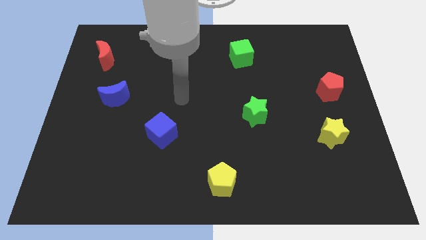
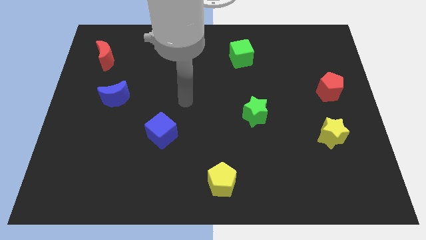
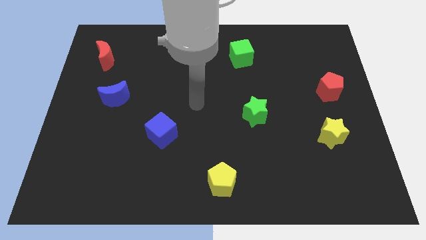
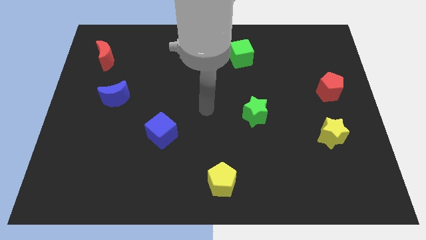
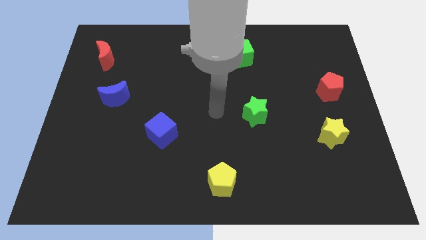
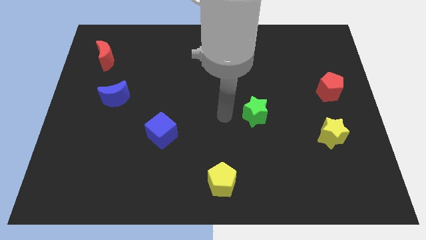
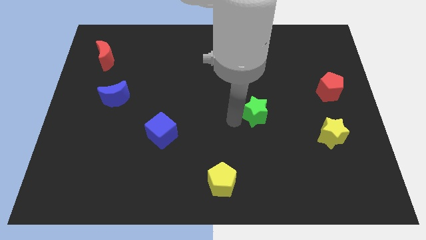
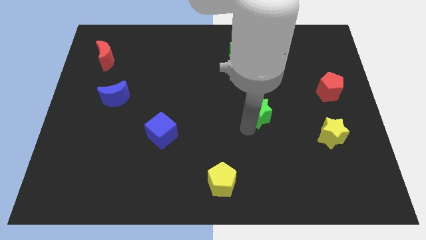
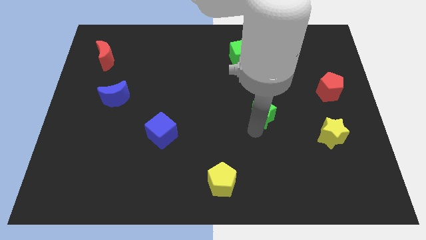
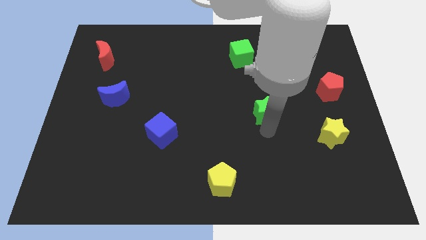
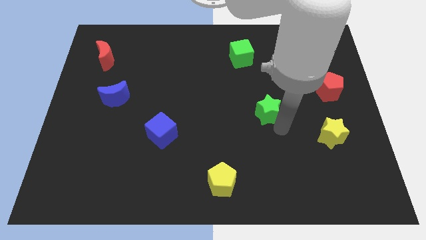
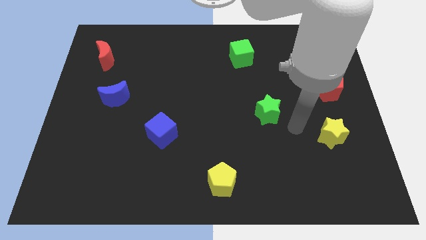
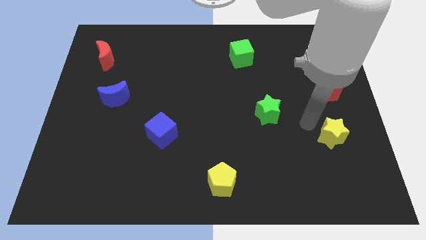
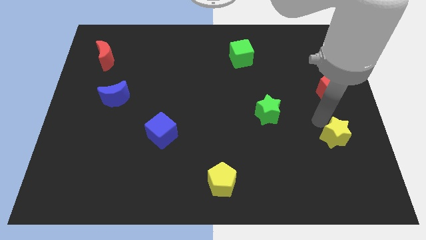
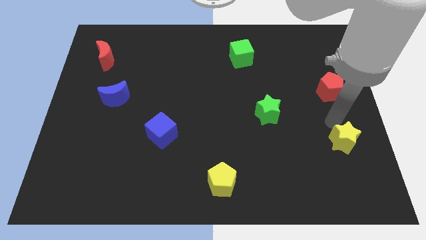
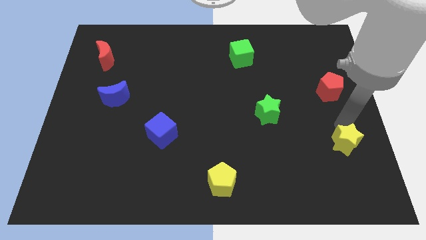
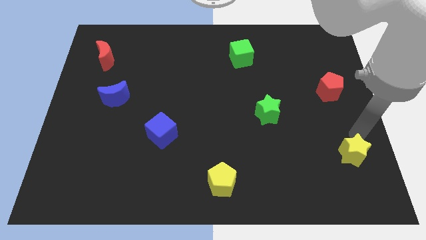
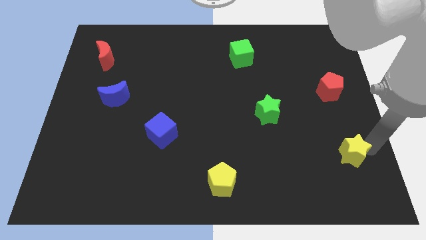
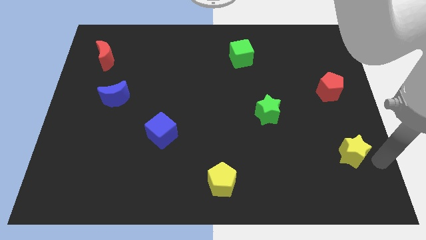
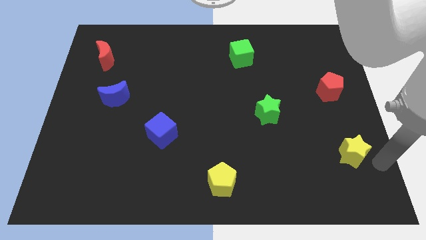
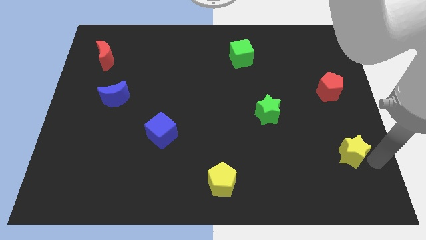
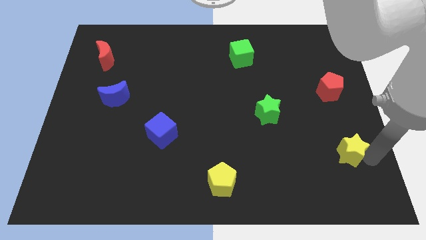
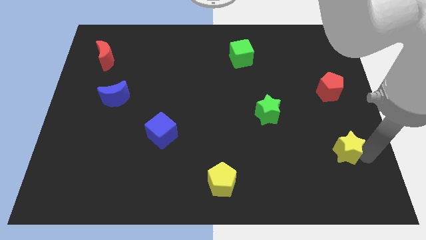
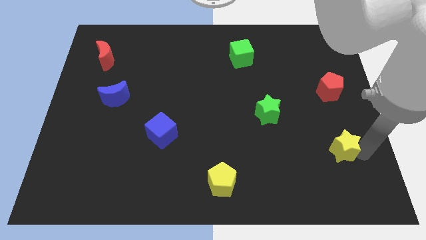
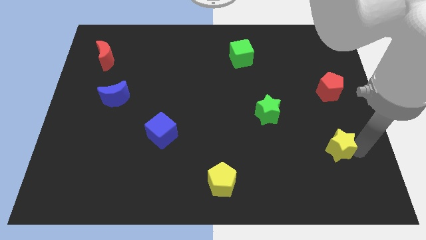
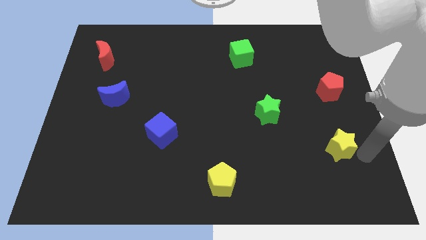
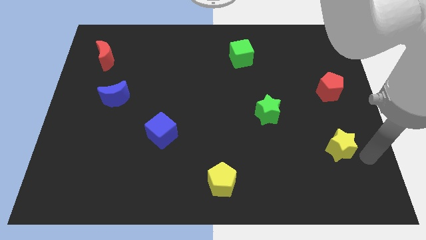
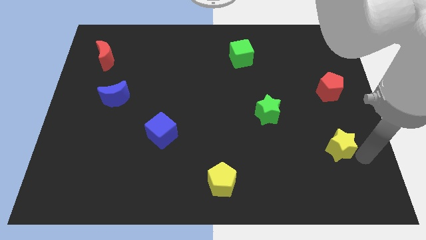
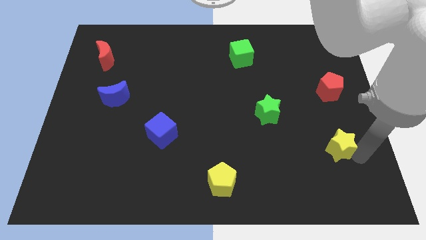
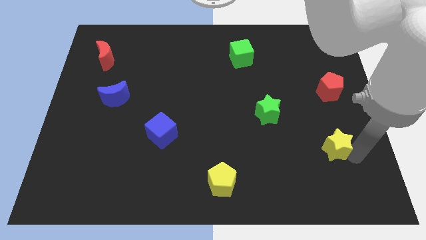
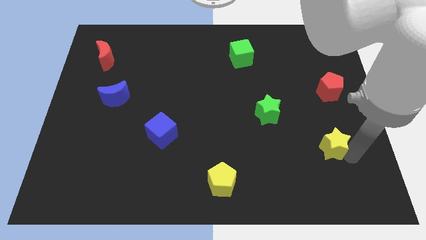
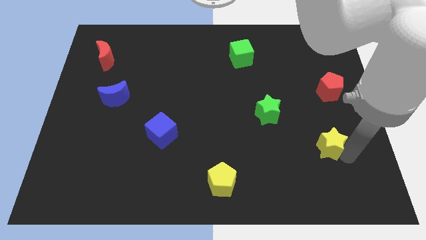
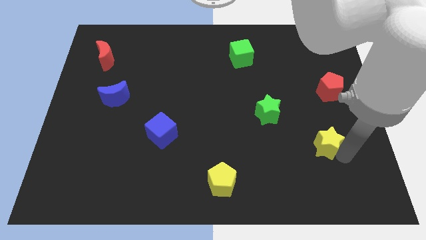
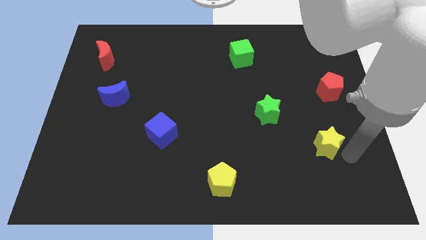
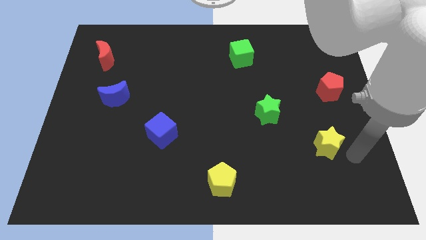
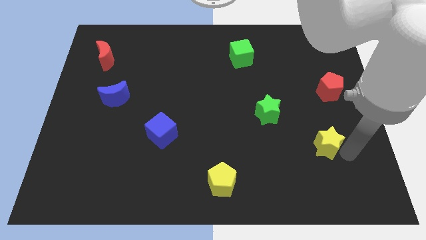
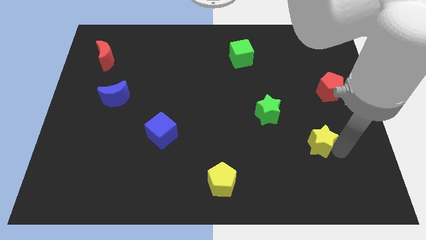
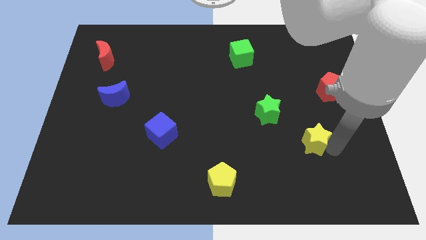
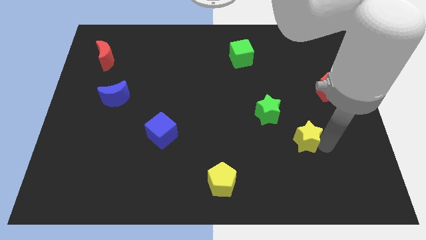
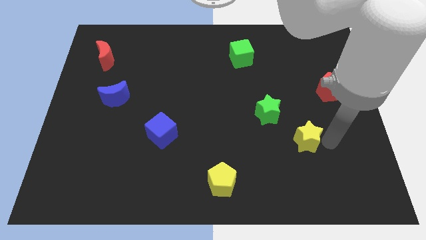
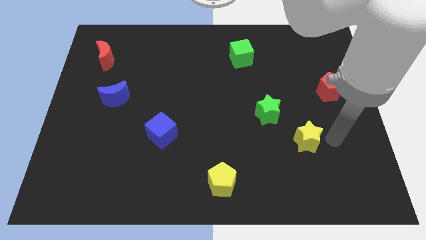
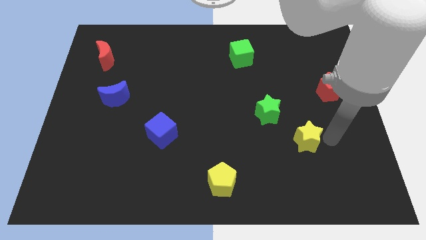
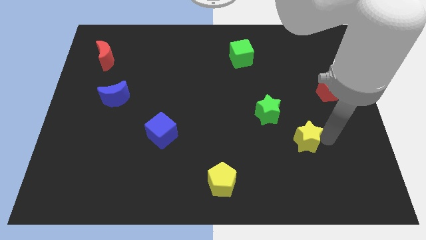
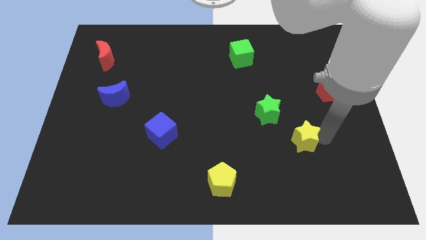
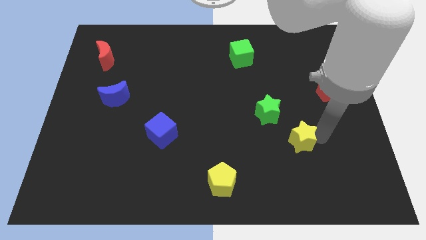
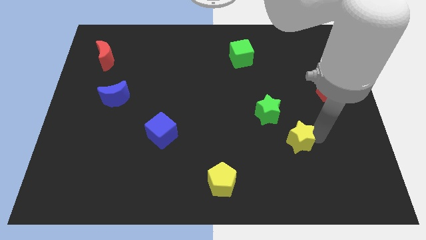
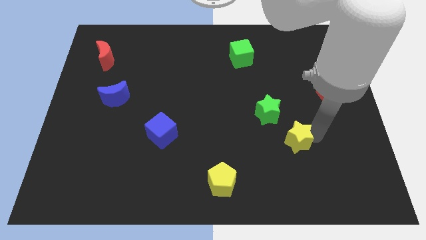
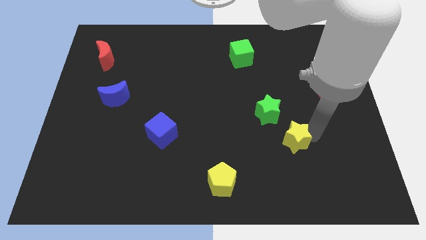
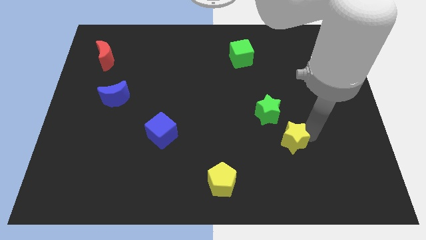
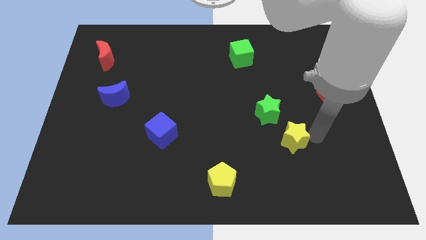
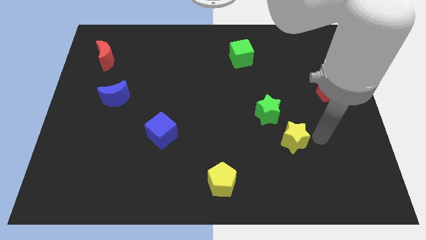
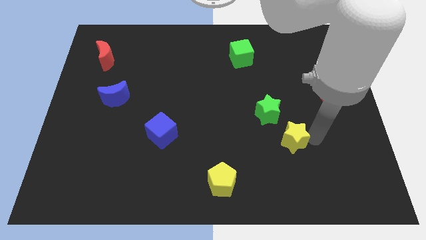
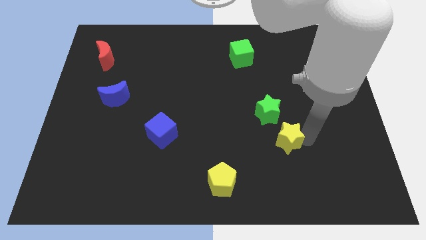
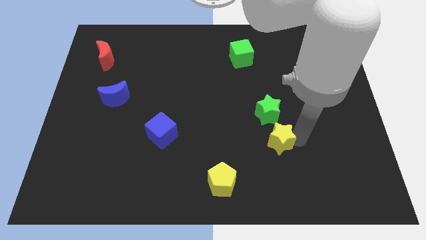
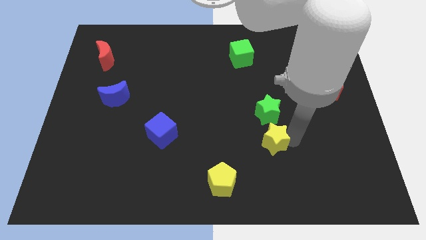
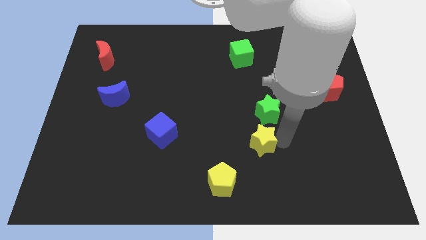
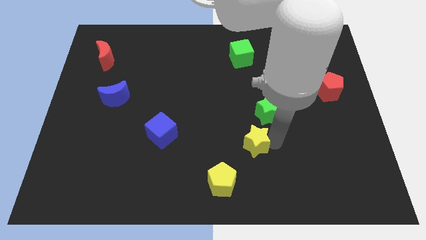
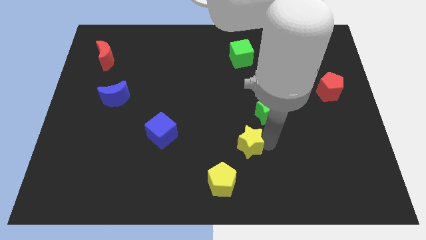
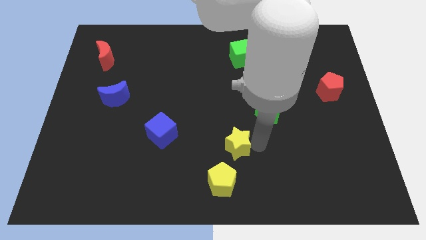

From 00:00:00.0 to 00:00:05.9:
move the yellow star to the left

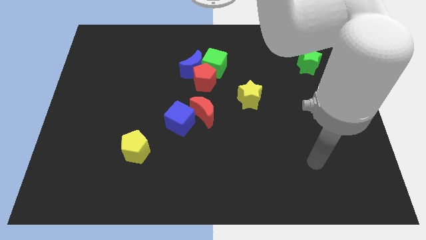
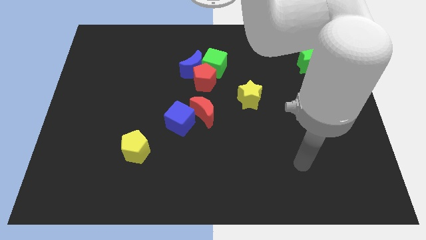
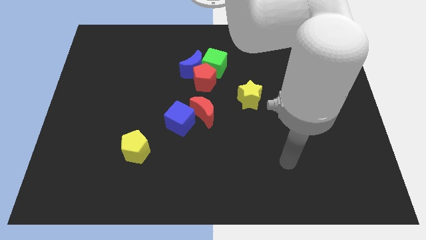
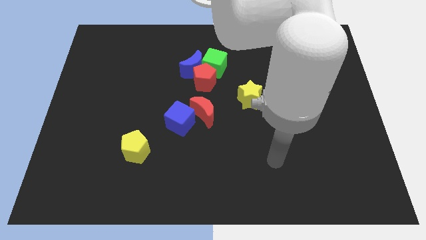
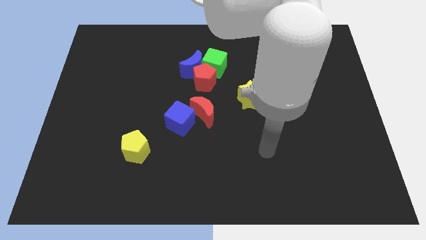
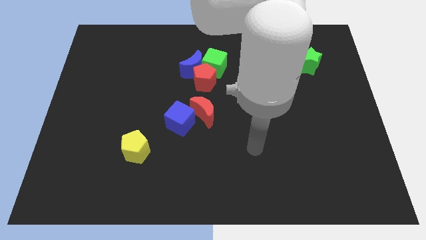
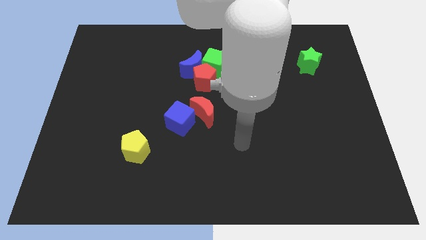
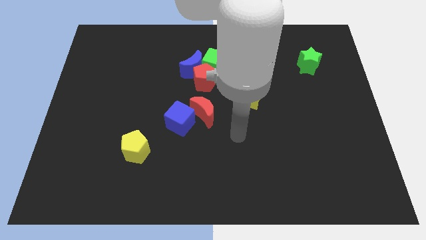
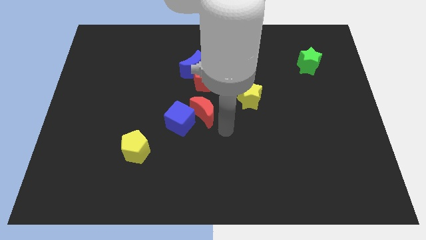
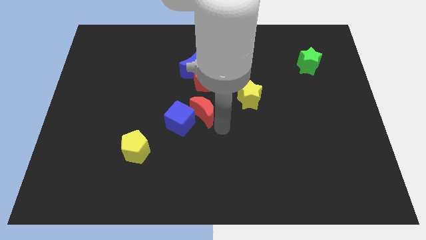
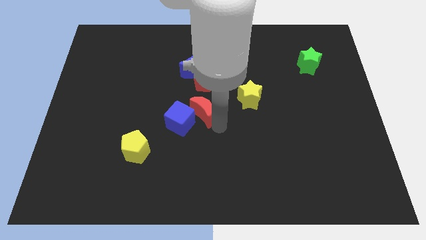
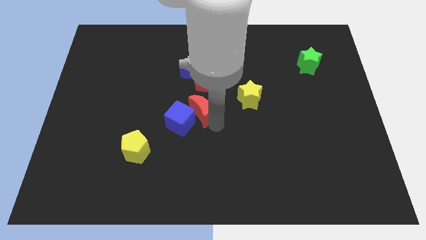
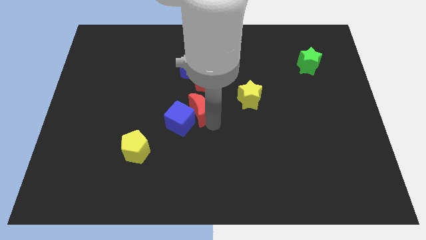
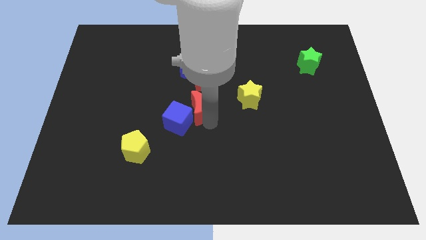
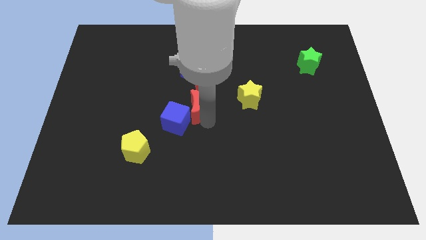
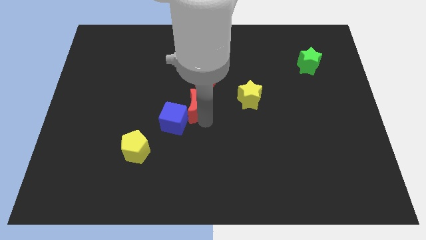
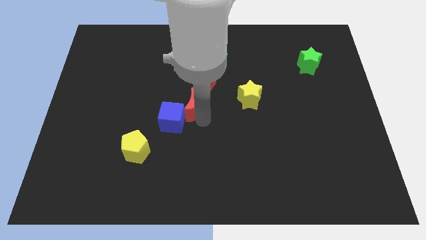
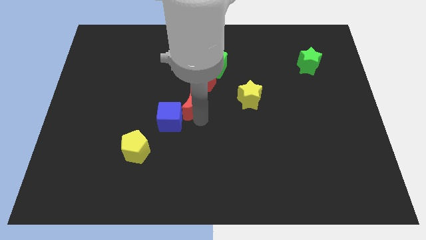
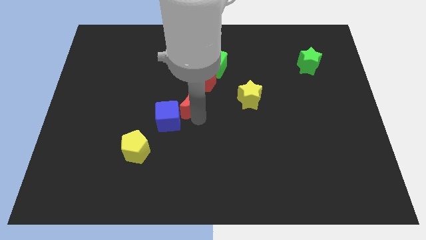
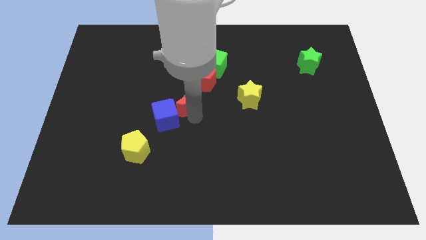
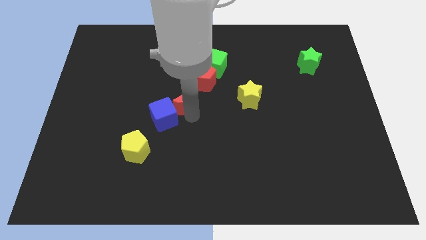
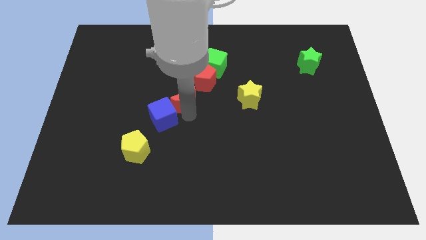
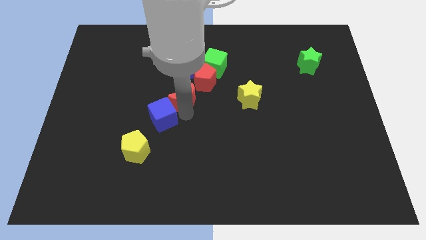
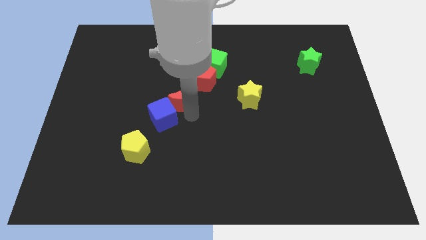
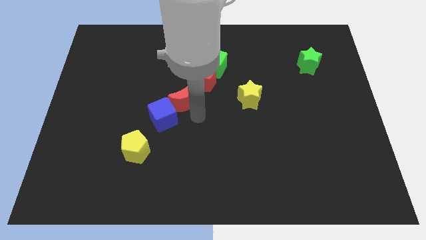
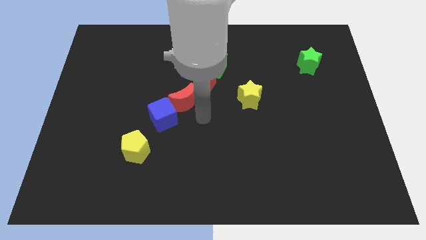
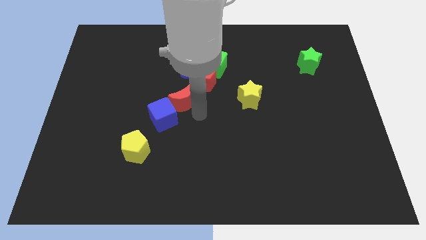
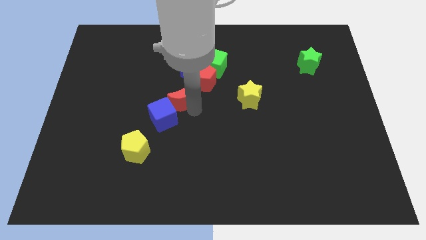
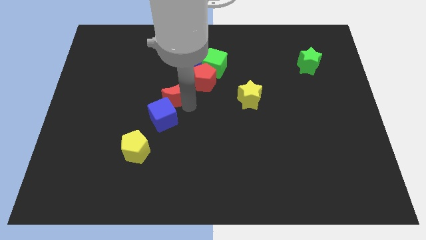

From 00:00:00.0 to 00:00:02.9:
slightly push the red moon up and then to the left
